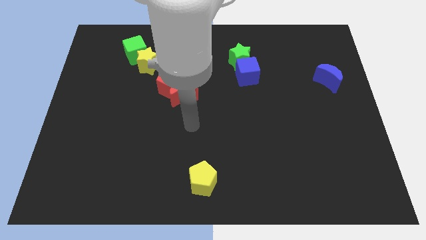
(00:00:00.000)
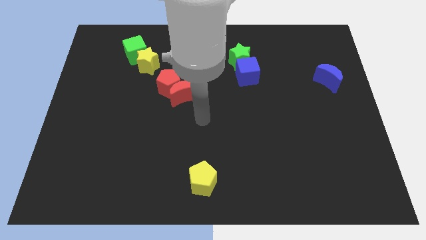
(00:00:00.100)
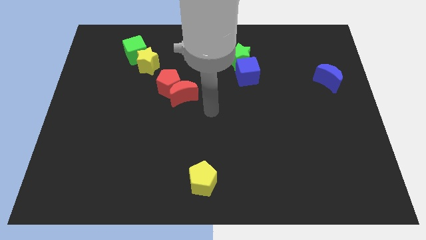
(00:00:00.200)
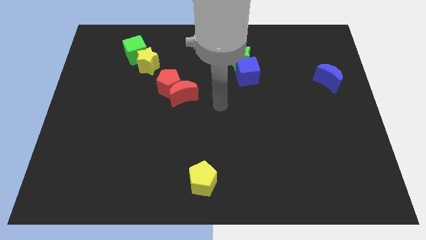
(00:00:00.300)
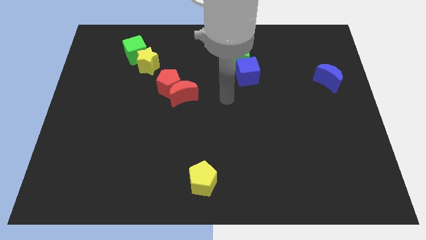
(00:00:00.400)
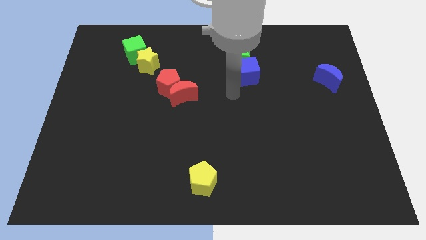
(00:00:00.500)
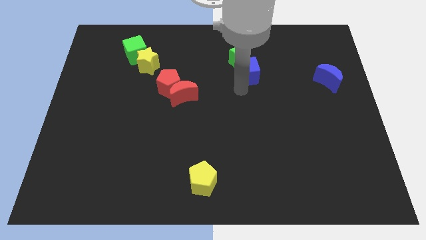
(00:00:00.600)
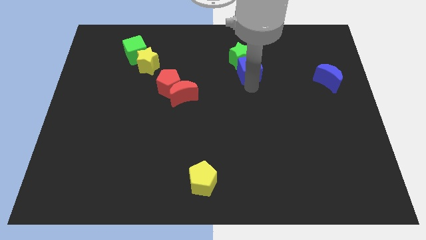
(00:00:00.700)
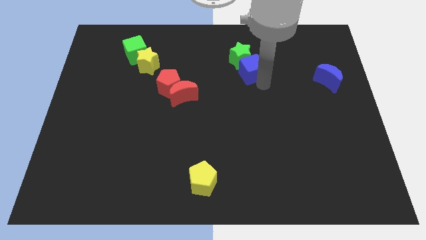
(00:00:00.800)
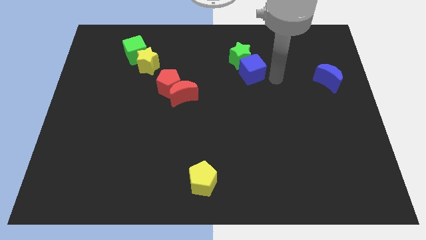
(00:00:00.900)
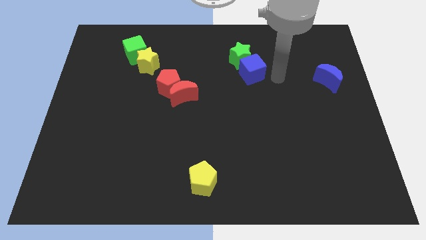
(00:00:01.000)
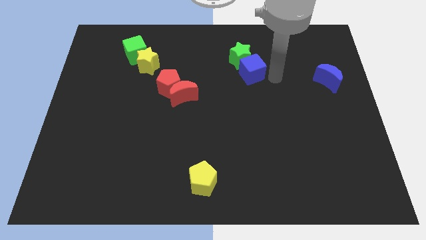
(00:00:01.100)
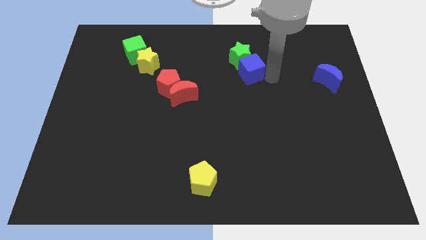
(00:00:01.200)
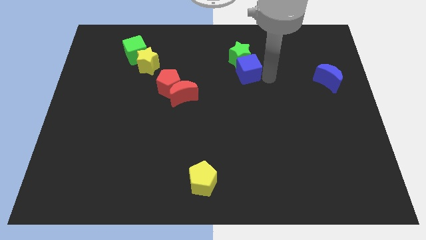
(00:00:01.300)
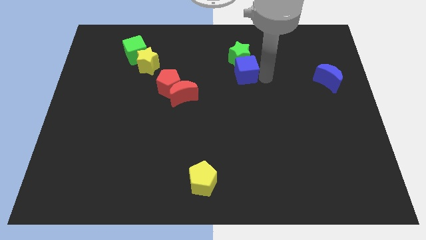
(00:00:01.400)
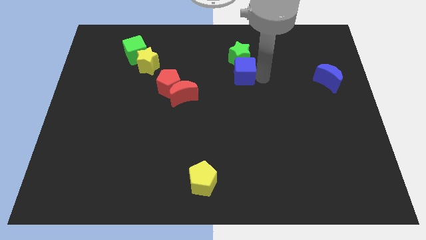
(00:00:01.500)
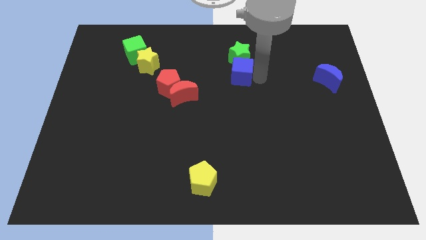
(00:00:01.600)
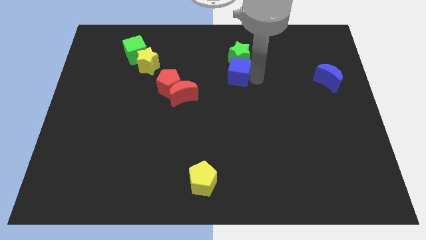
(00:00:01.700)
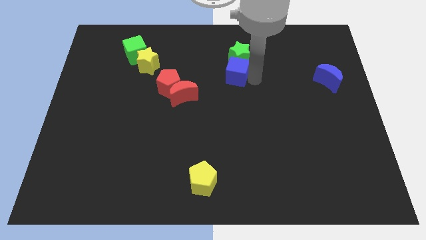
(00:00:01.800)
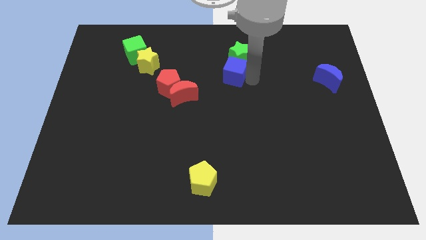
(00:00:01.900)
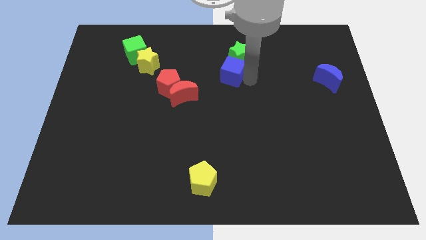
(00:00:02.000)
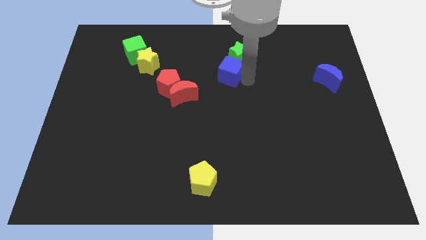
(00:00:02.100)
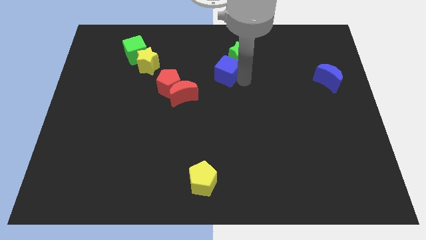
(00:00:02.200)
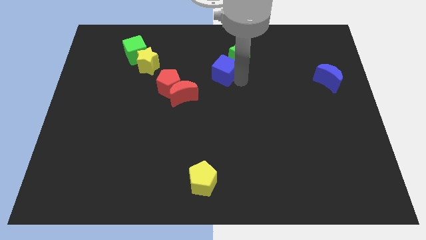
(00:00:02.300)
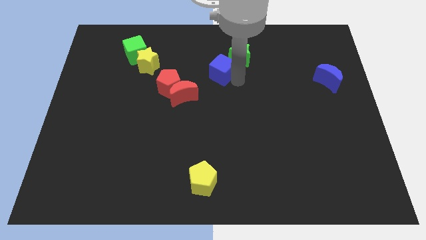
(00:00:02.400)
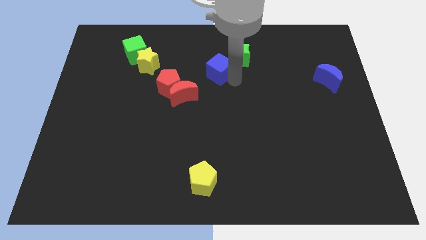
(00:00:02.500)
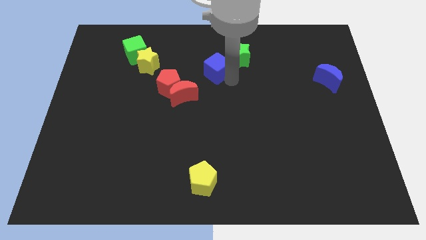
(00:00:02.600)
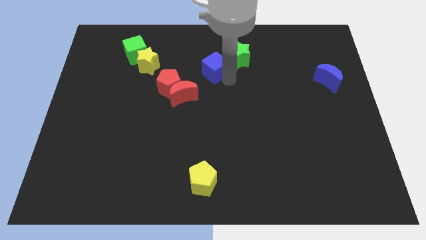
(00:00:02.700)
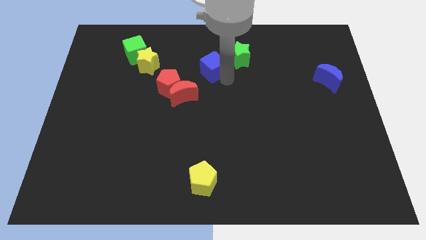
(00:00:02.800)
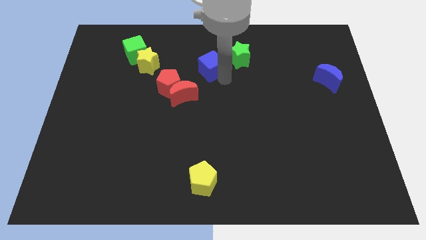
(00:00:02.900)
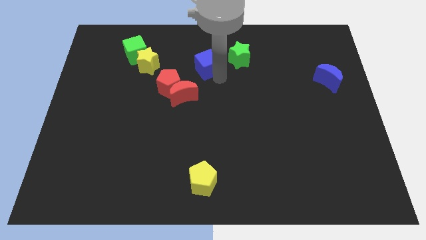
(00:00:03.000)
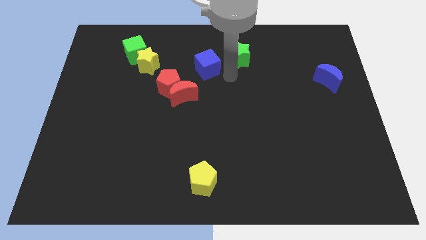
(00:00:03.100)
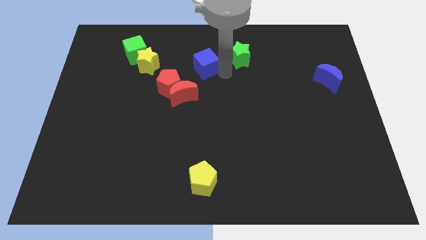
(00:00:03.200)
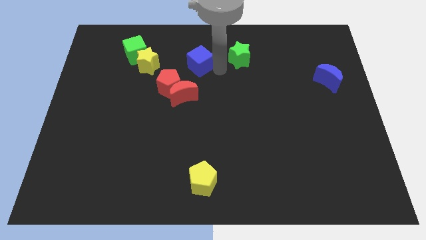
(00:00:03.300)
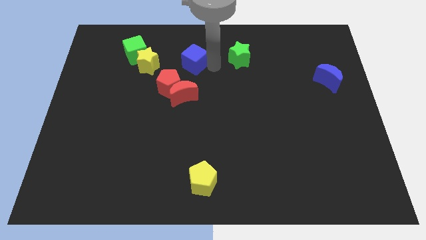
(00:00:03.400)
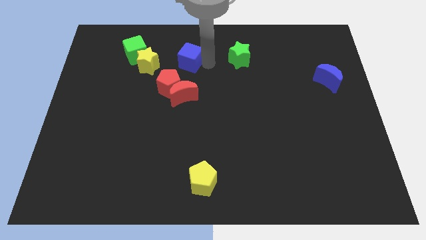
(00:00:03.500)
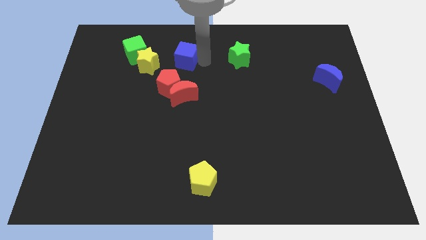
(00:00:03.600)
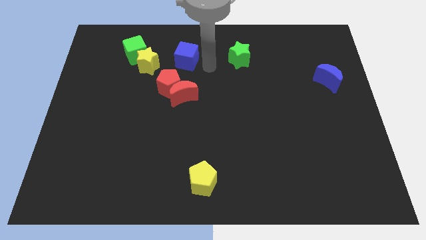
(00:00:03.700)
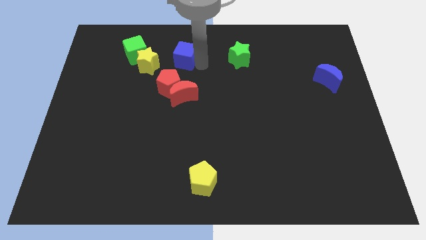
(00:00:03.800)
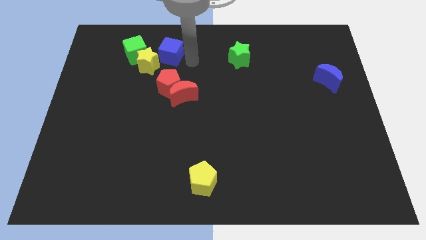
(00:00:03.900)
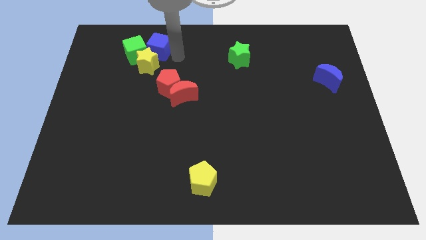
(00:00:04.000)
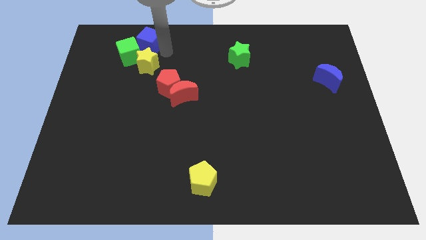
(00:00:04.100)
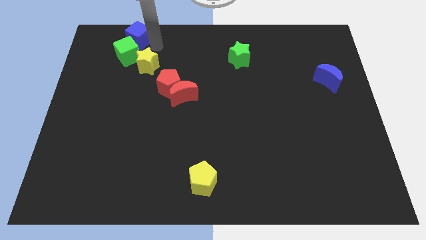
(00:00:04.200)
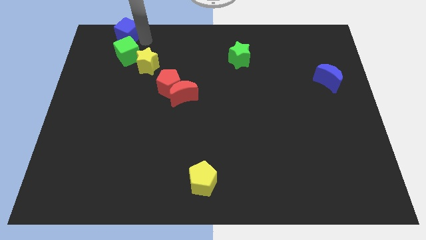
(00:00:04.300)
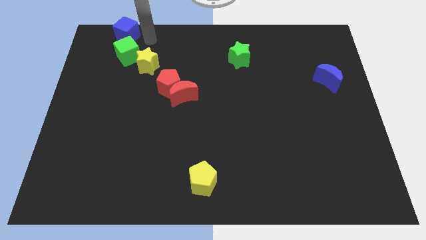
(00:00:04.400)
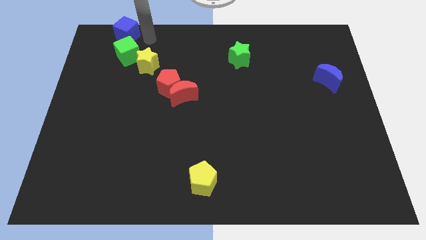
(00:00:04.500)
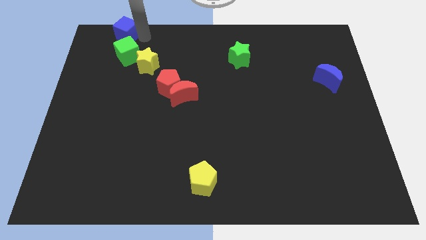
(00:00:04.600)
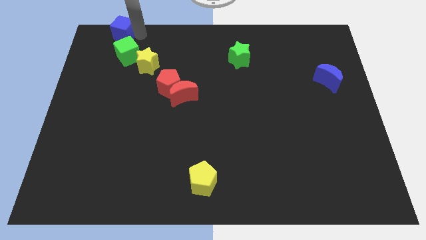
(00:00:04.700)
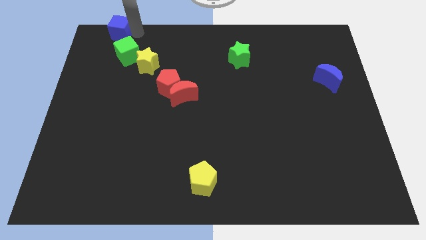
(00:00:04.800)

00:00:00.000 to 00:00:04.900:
put the blue cube to the top left corner

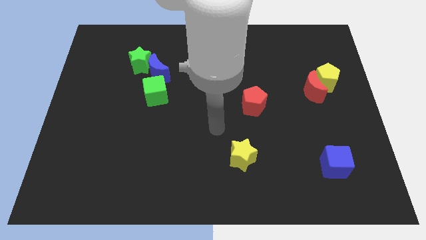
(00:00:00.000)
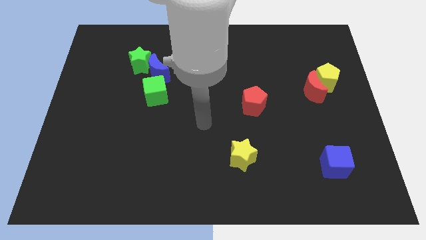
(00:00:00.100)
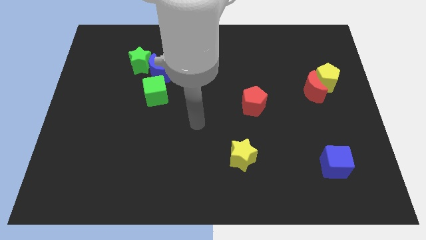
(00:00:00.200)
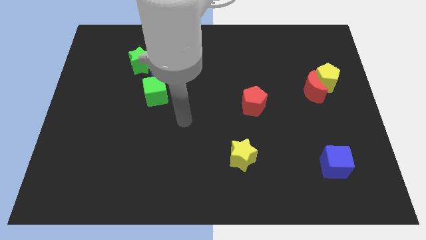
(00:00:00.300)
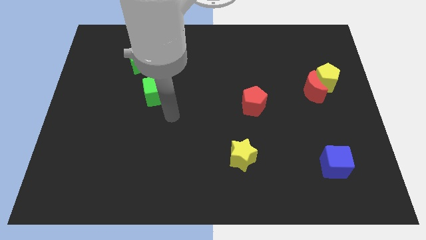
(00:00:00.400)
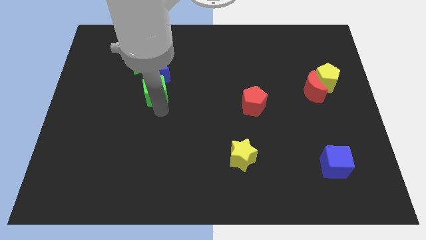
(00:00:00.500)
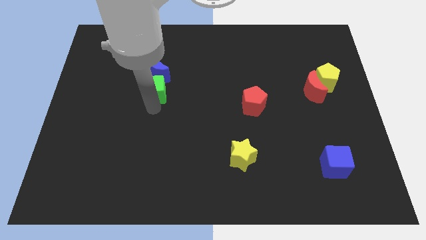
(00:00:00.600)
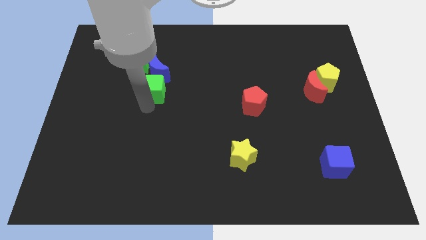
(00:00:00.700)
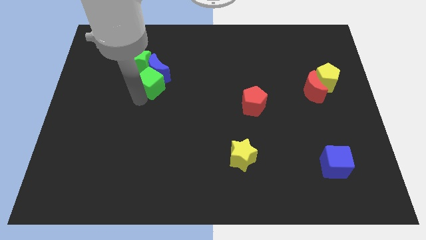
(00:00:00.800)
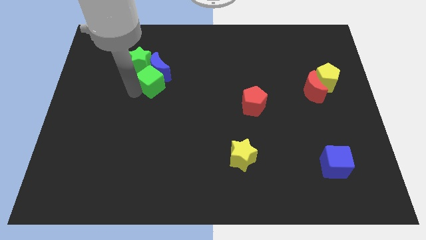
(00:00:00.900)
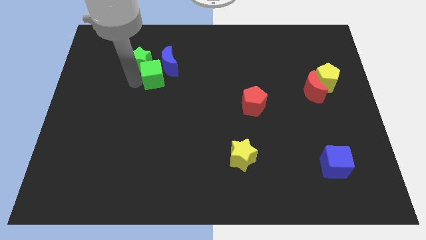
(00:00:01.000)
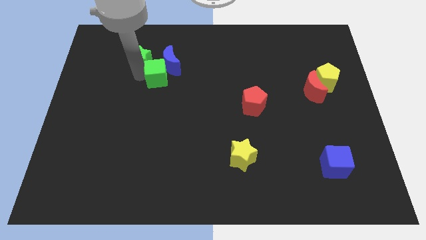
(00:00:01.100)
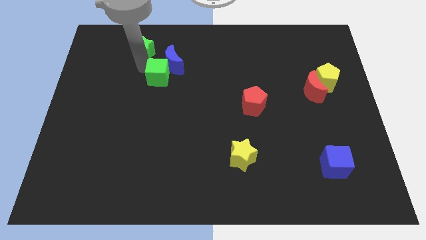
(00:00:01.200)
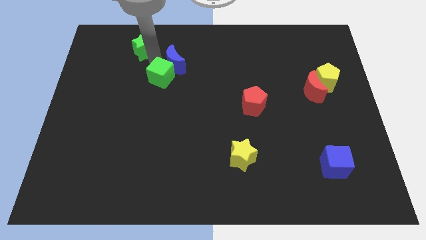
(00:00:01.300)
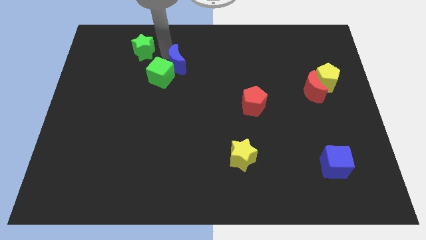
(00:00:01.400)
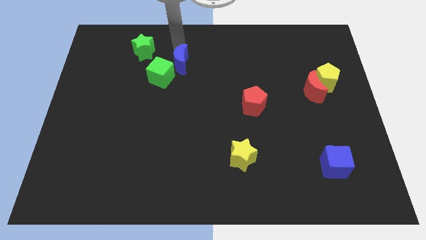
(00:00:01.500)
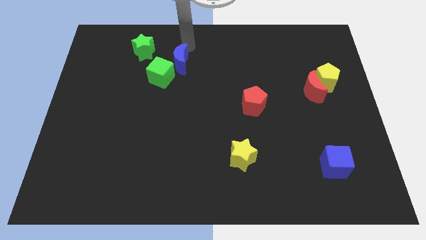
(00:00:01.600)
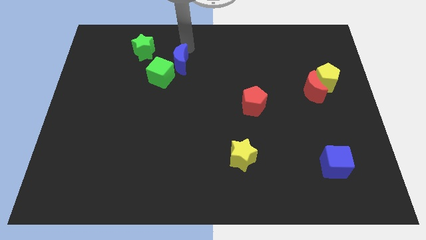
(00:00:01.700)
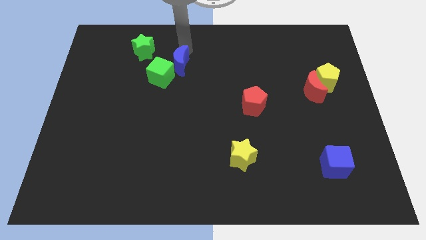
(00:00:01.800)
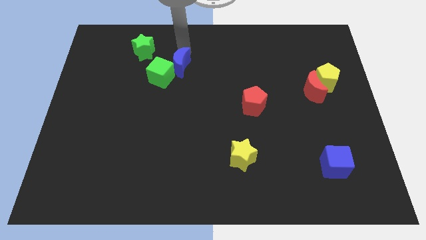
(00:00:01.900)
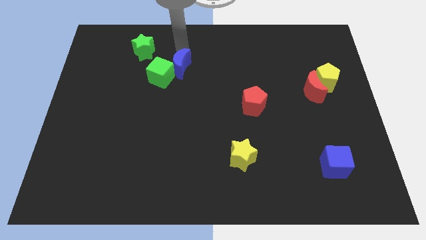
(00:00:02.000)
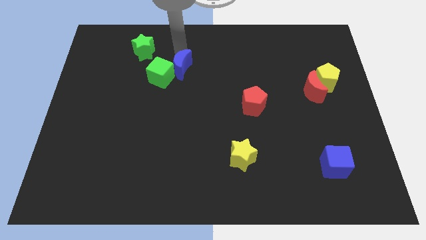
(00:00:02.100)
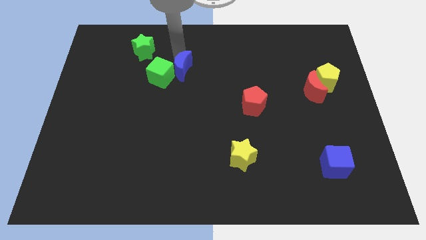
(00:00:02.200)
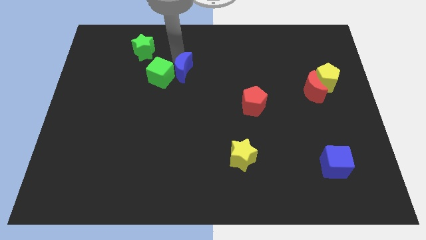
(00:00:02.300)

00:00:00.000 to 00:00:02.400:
put the blue moon to the center
